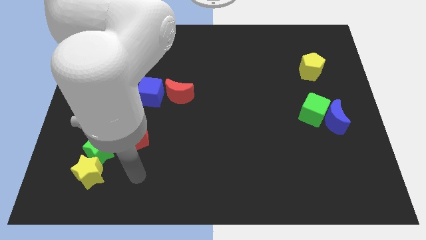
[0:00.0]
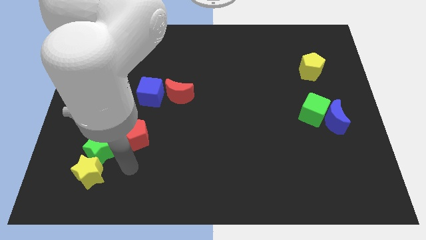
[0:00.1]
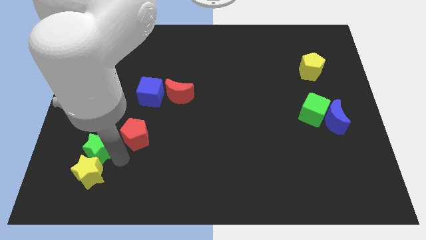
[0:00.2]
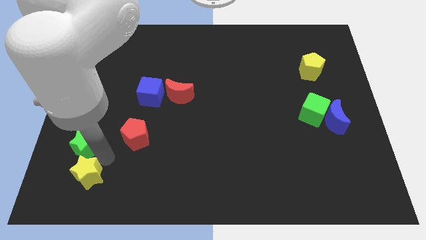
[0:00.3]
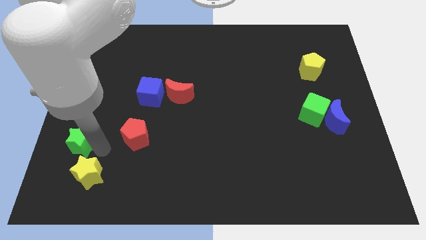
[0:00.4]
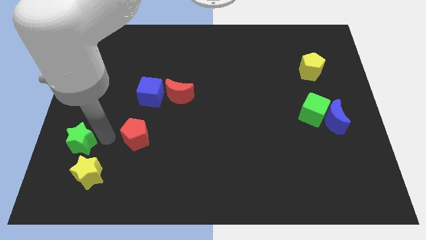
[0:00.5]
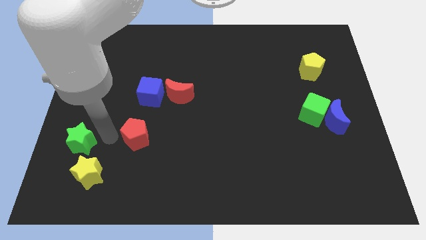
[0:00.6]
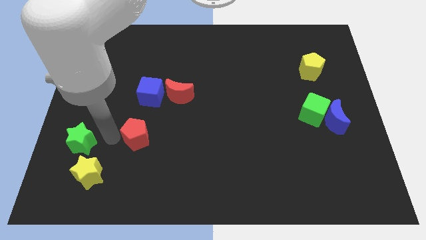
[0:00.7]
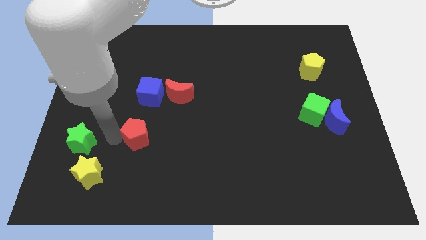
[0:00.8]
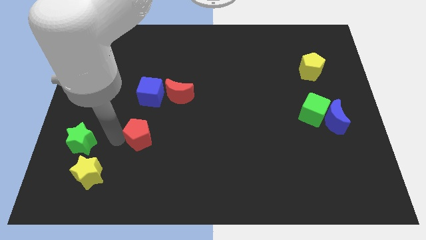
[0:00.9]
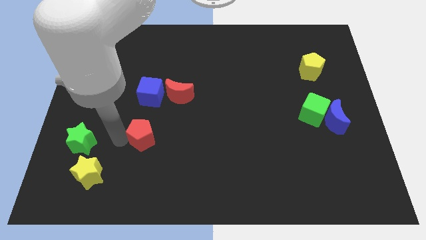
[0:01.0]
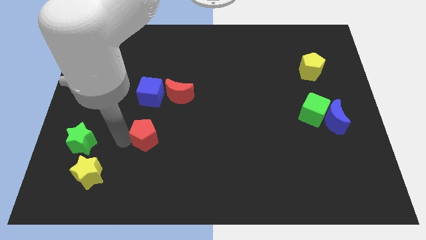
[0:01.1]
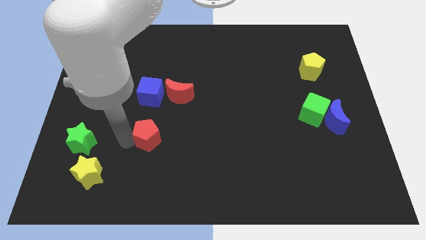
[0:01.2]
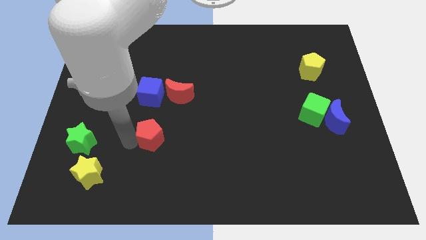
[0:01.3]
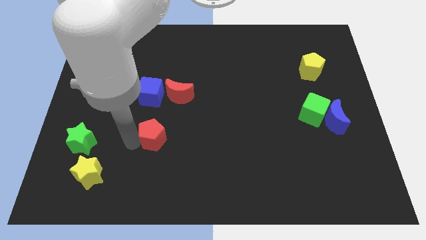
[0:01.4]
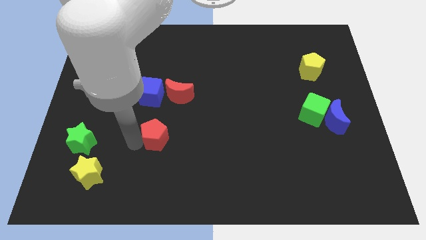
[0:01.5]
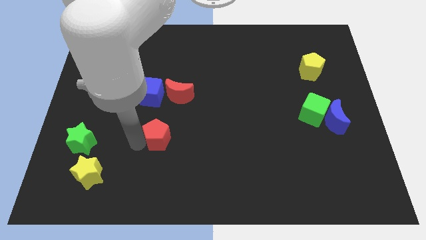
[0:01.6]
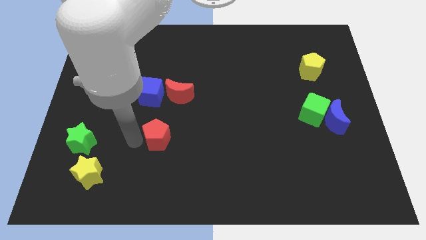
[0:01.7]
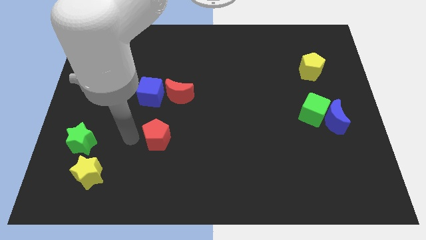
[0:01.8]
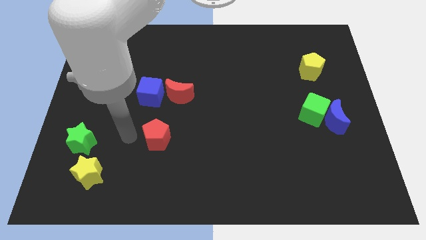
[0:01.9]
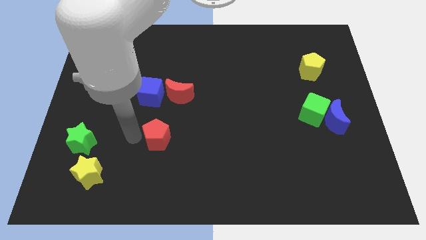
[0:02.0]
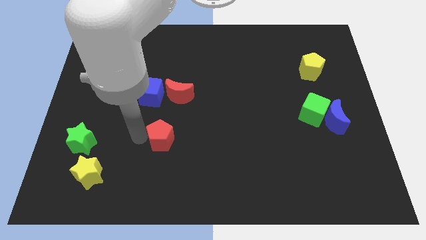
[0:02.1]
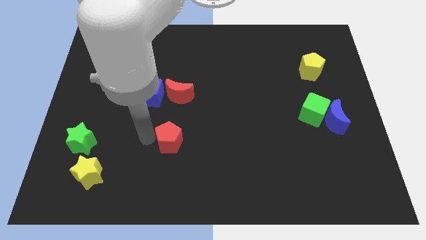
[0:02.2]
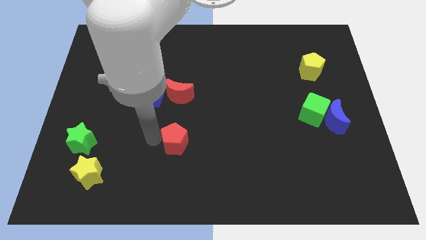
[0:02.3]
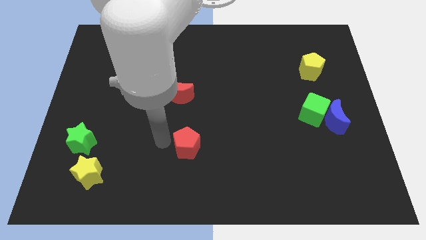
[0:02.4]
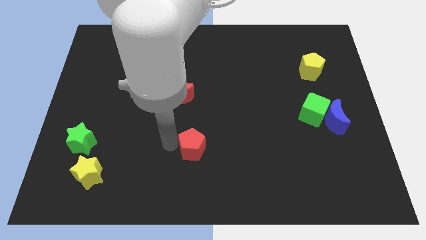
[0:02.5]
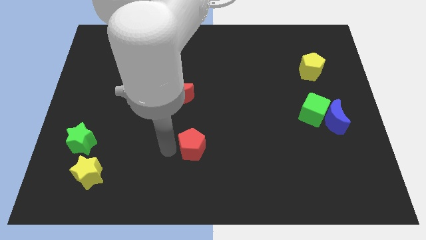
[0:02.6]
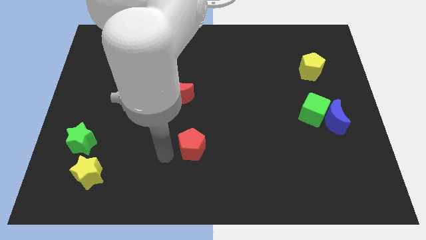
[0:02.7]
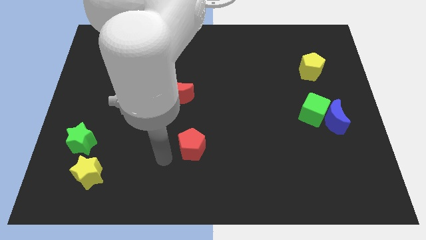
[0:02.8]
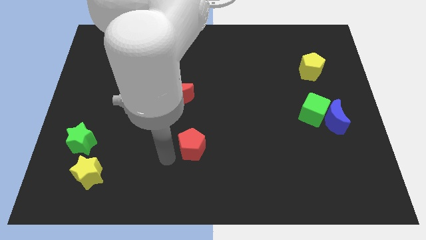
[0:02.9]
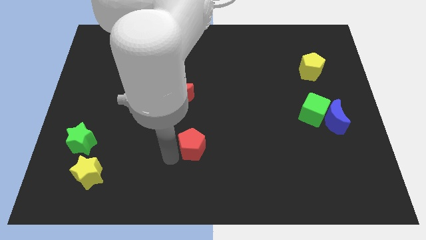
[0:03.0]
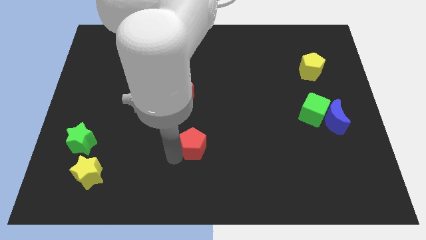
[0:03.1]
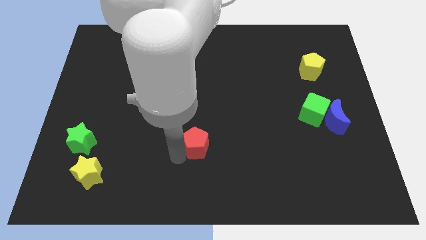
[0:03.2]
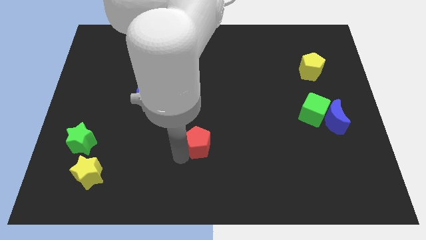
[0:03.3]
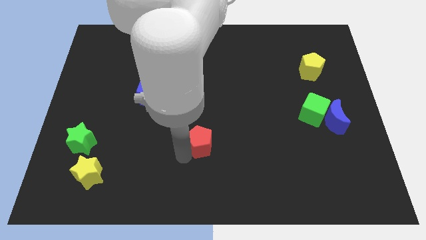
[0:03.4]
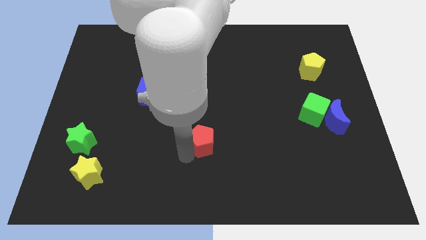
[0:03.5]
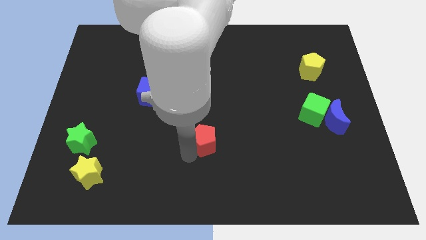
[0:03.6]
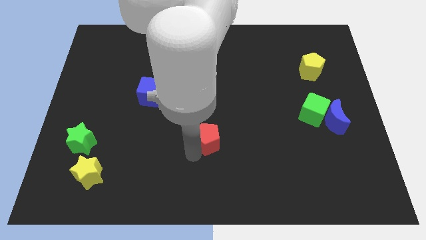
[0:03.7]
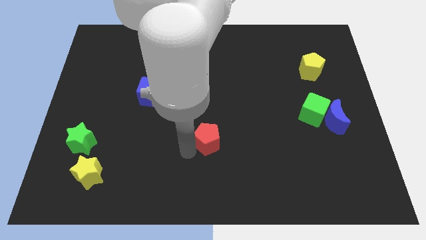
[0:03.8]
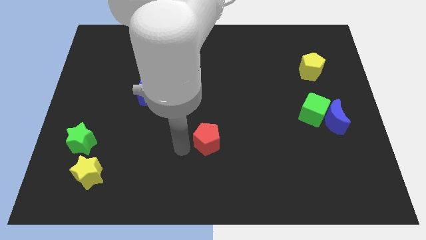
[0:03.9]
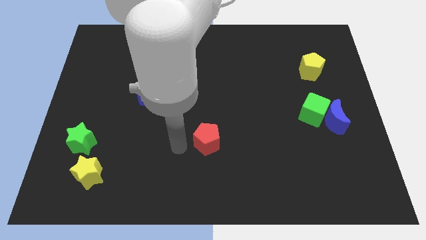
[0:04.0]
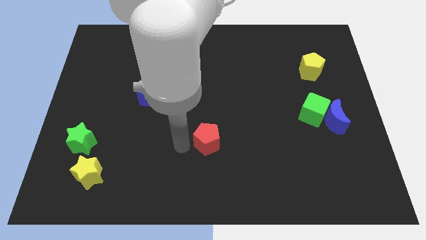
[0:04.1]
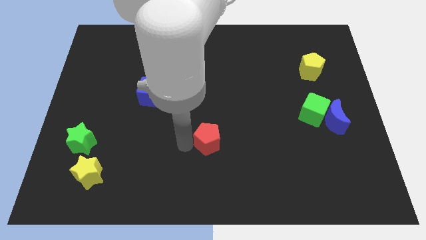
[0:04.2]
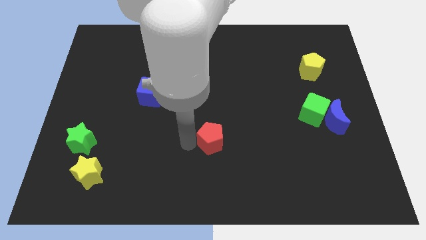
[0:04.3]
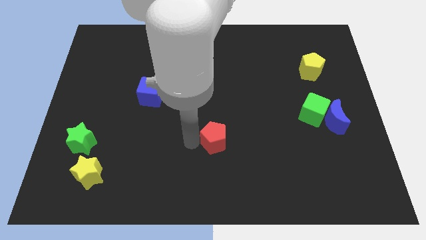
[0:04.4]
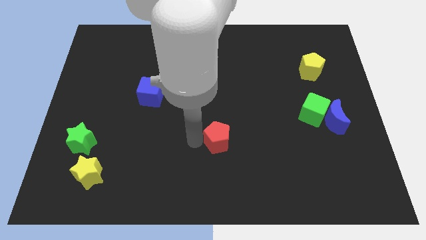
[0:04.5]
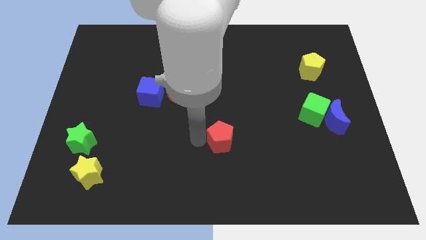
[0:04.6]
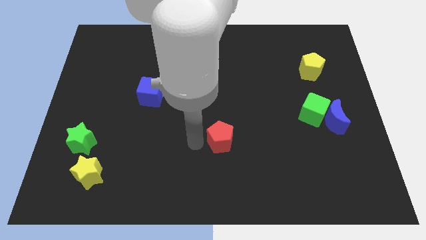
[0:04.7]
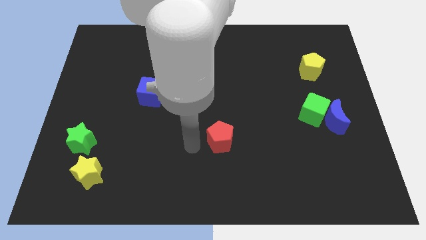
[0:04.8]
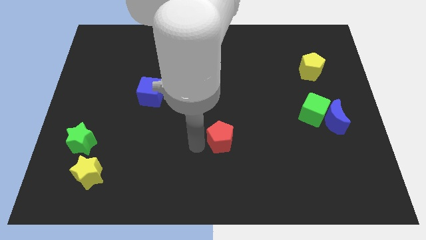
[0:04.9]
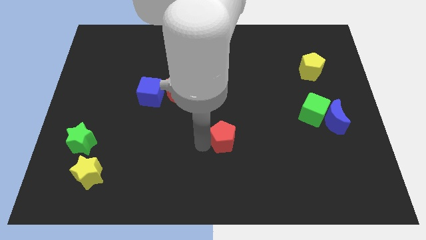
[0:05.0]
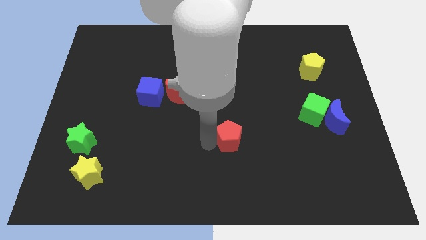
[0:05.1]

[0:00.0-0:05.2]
slide the red pentagon to the right

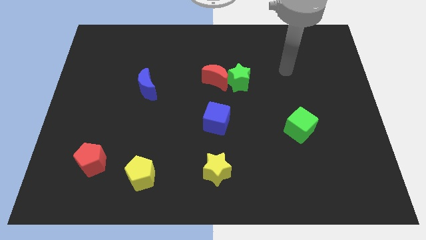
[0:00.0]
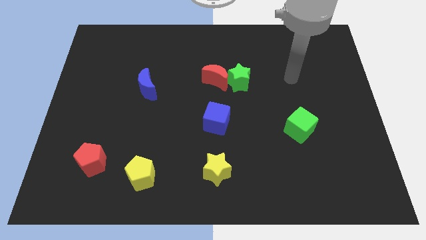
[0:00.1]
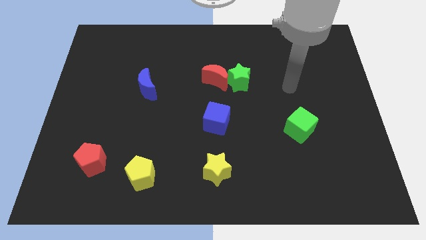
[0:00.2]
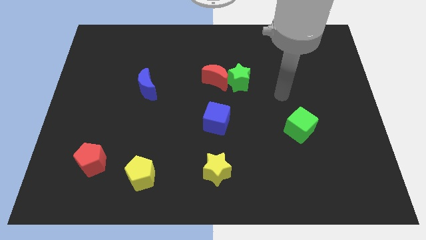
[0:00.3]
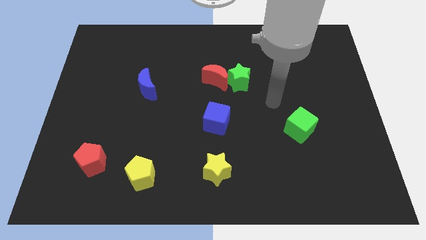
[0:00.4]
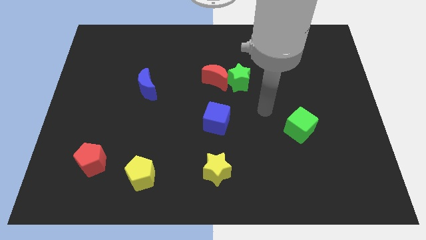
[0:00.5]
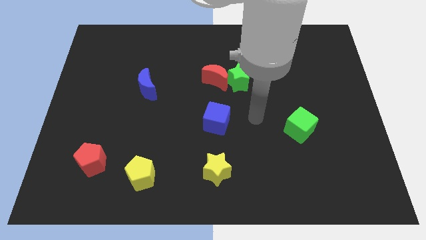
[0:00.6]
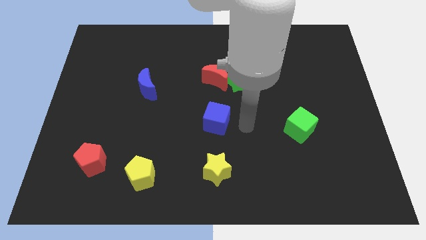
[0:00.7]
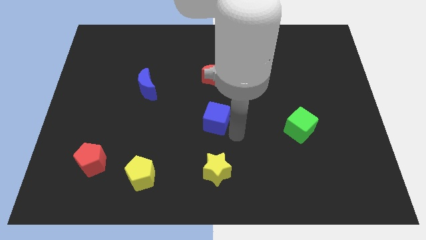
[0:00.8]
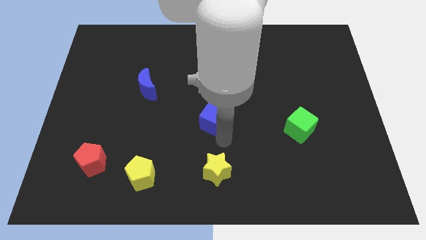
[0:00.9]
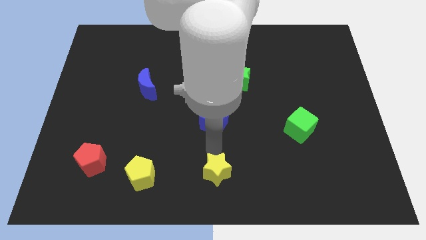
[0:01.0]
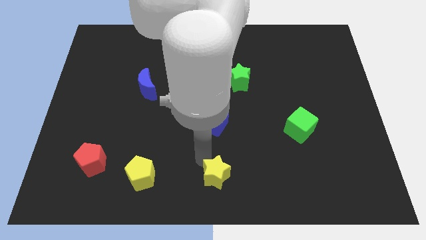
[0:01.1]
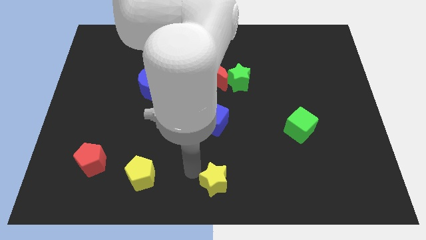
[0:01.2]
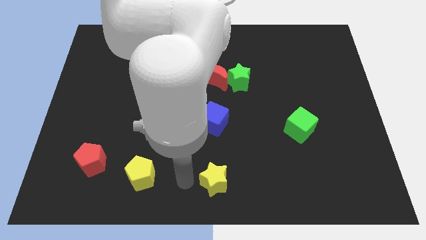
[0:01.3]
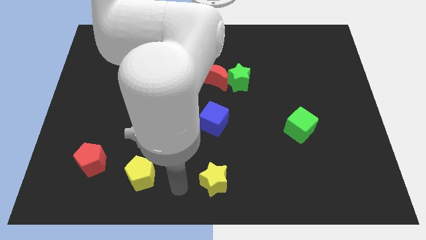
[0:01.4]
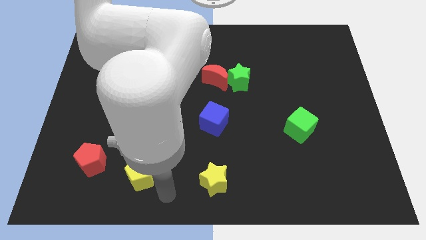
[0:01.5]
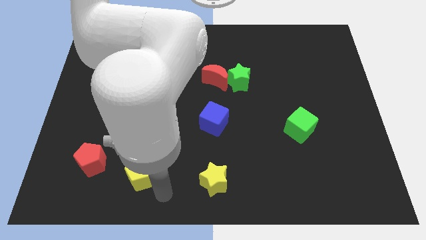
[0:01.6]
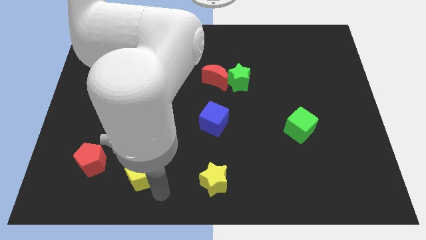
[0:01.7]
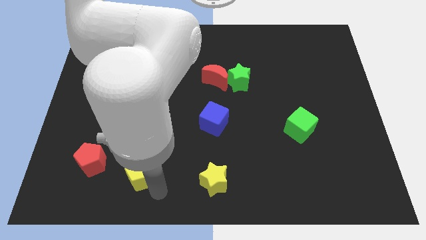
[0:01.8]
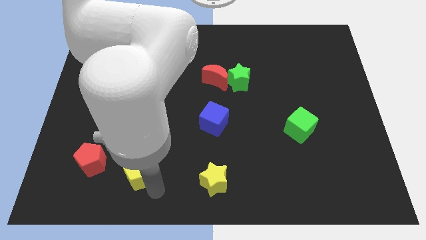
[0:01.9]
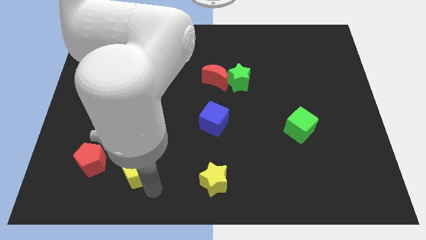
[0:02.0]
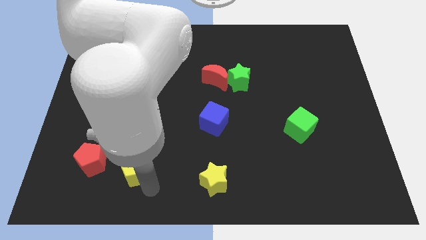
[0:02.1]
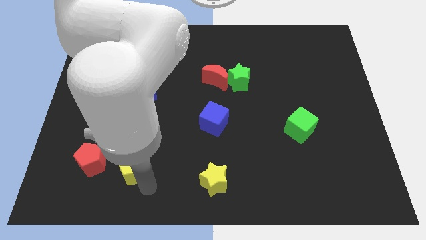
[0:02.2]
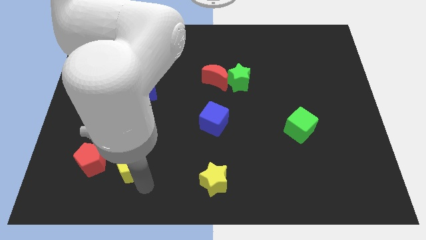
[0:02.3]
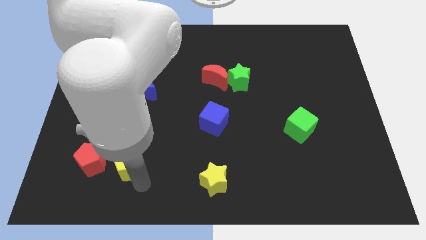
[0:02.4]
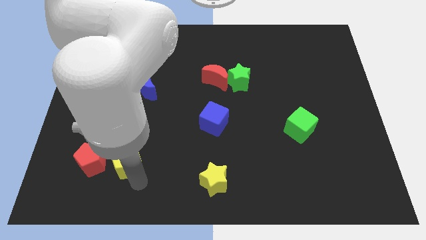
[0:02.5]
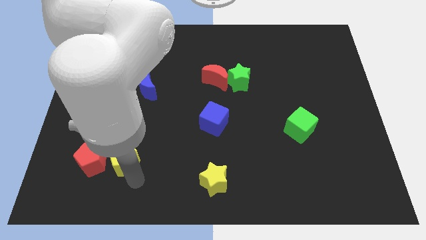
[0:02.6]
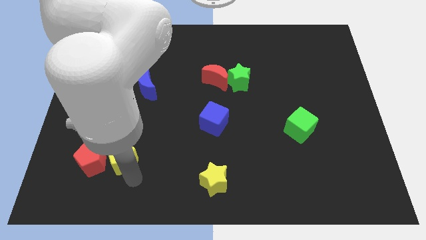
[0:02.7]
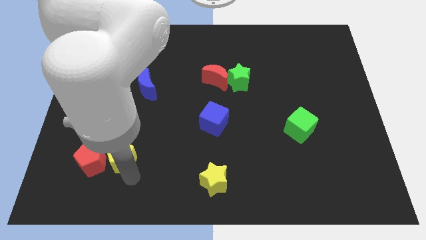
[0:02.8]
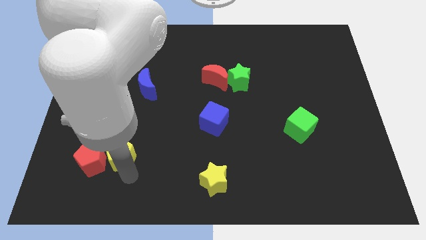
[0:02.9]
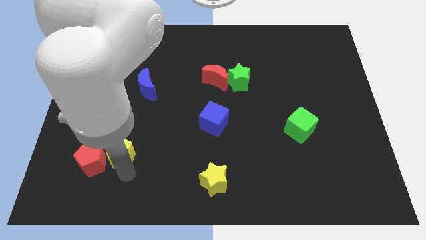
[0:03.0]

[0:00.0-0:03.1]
slightly move the yellow pentagon diagonally up and left
